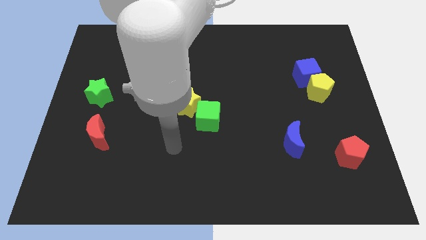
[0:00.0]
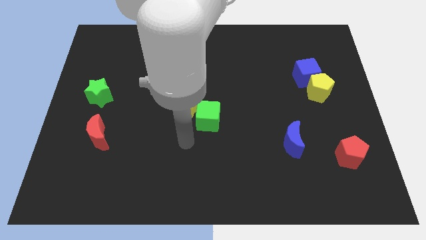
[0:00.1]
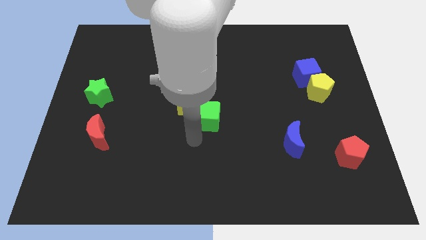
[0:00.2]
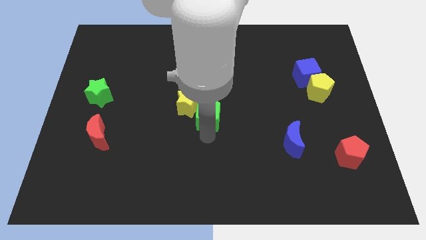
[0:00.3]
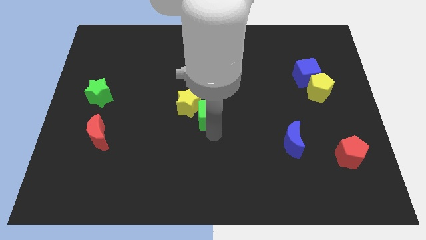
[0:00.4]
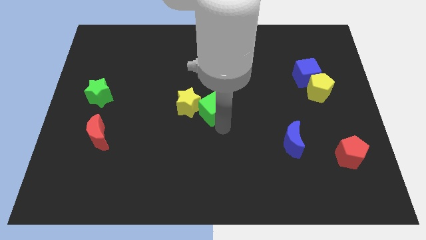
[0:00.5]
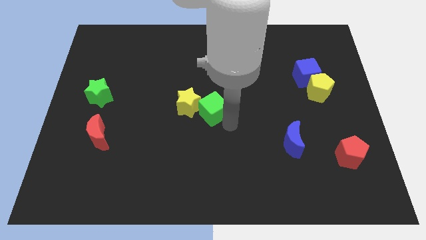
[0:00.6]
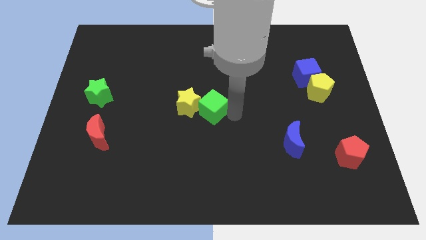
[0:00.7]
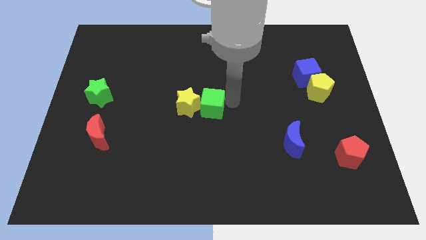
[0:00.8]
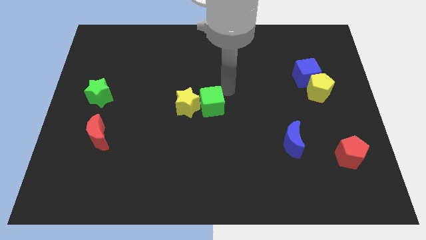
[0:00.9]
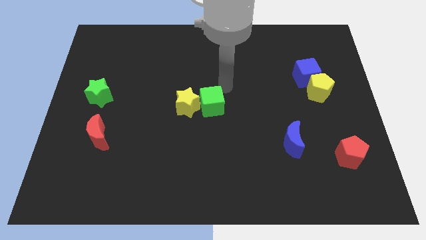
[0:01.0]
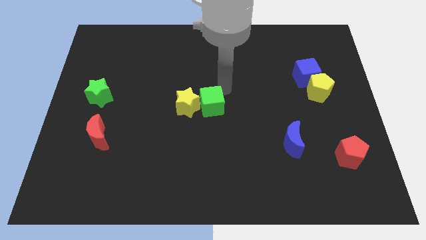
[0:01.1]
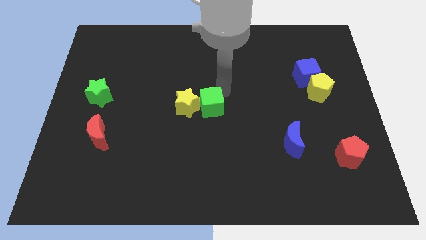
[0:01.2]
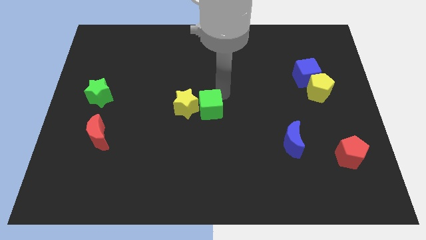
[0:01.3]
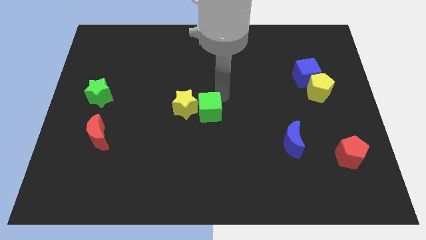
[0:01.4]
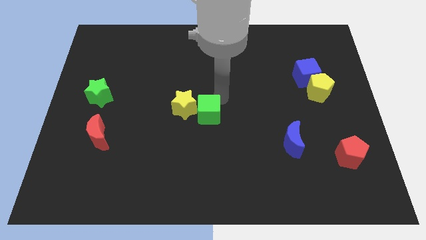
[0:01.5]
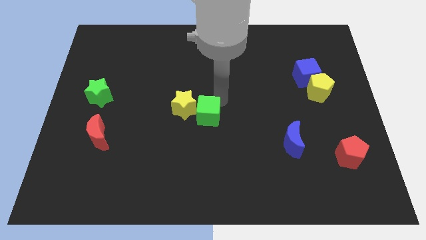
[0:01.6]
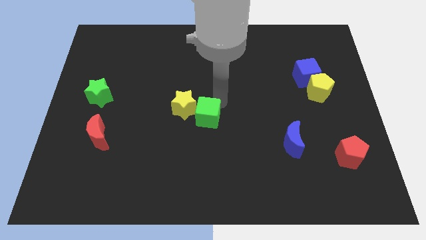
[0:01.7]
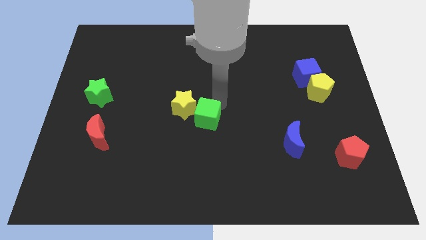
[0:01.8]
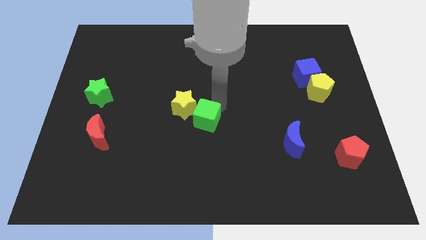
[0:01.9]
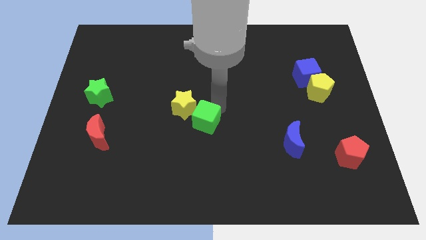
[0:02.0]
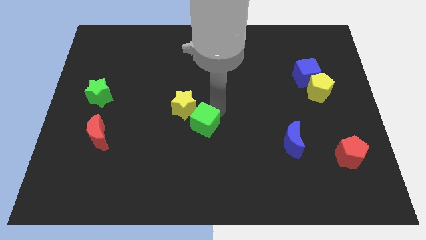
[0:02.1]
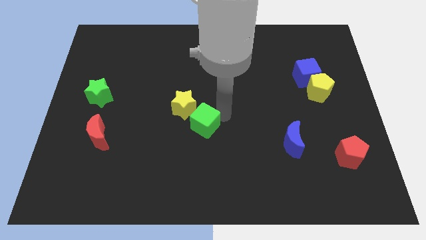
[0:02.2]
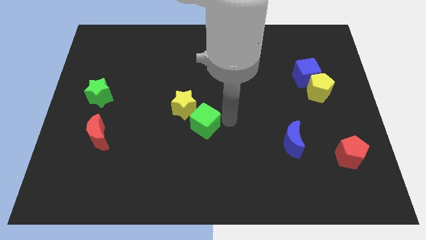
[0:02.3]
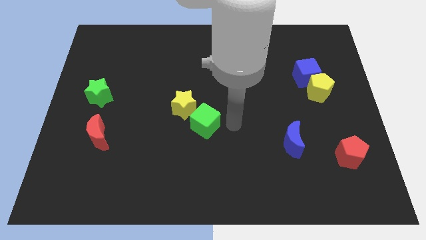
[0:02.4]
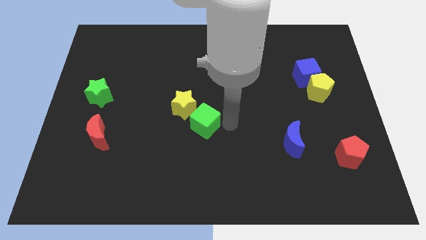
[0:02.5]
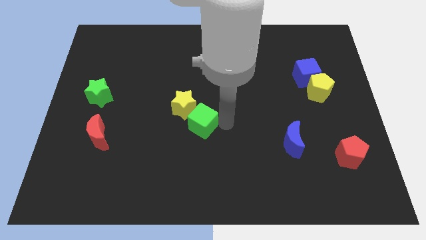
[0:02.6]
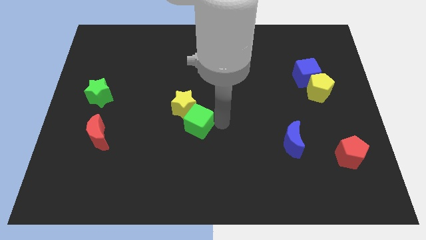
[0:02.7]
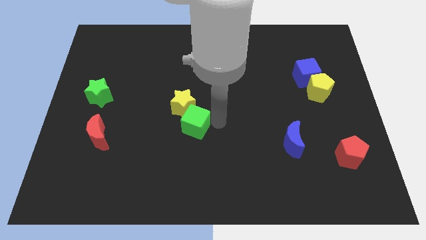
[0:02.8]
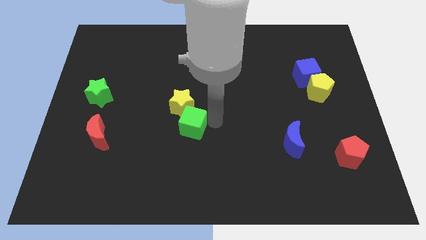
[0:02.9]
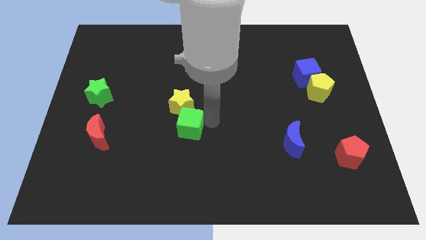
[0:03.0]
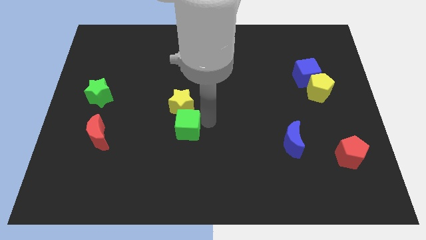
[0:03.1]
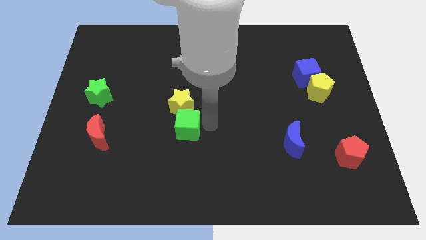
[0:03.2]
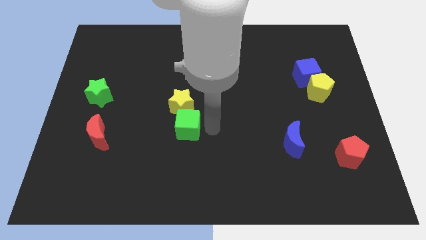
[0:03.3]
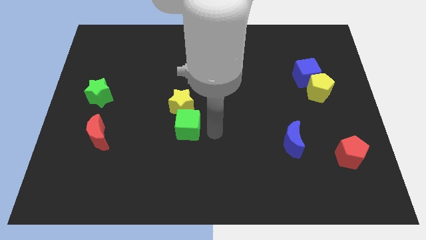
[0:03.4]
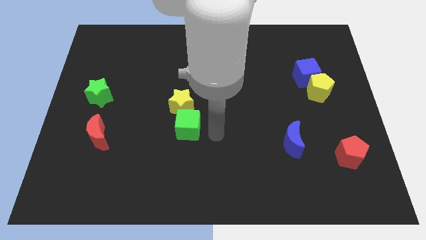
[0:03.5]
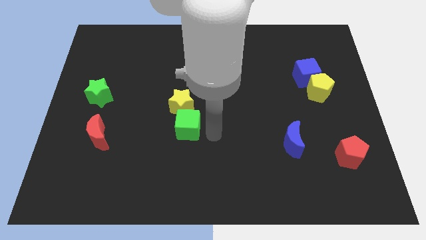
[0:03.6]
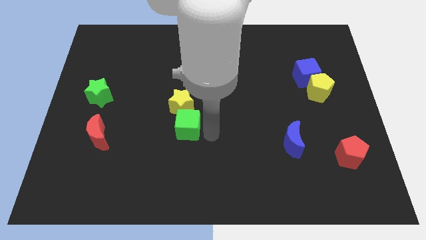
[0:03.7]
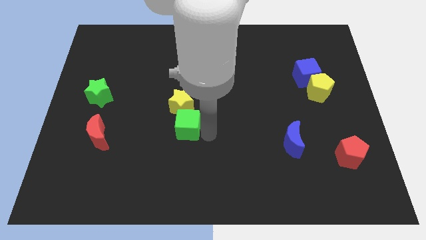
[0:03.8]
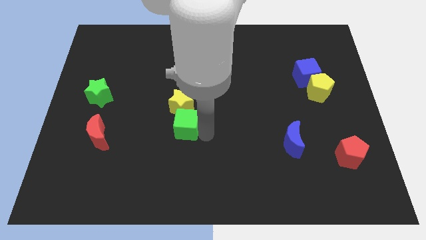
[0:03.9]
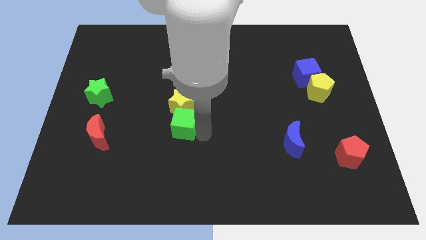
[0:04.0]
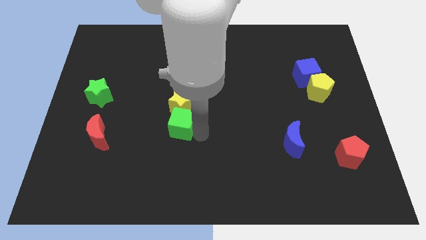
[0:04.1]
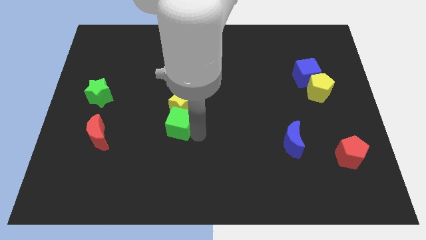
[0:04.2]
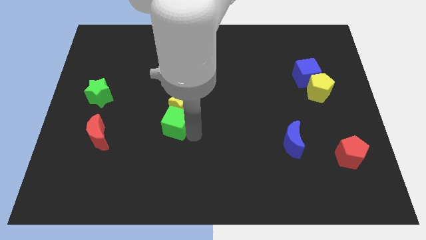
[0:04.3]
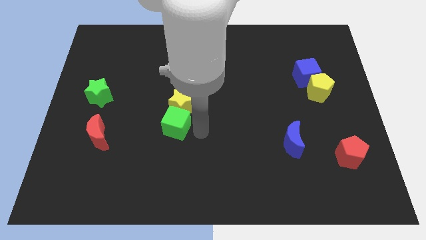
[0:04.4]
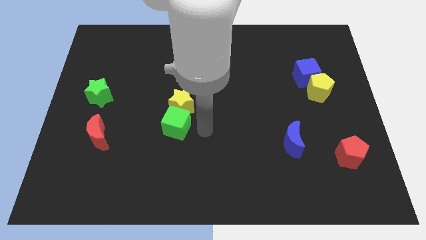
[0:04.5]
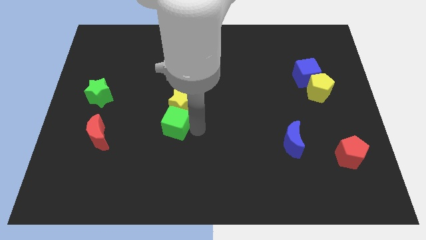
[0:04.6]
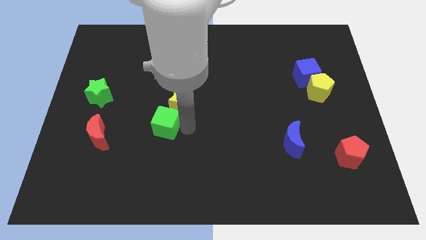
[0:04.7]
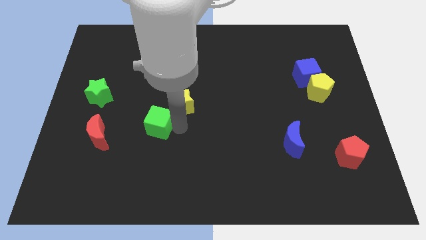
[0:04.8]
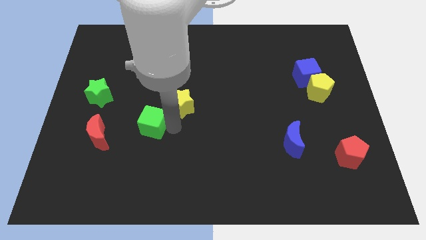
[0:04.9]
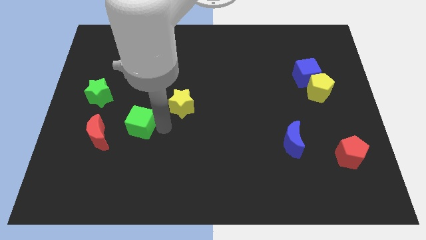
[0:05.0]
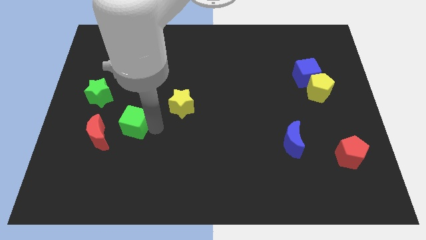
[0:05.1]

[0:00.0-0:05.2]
put the green cube to the bottom right side of the green star

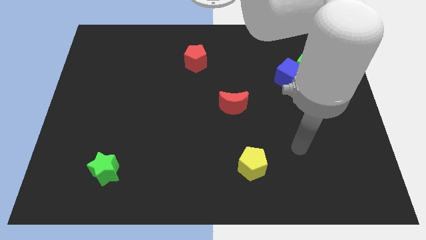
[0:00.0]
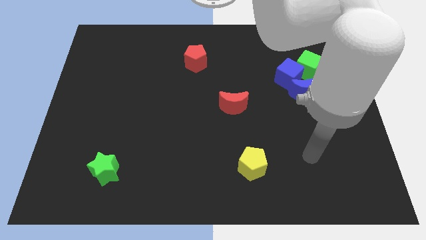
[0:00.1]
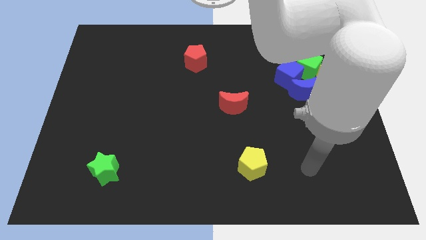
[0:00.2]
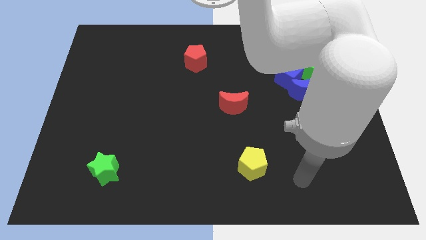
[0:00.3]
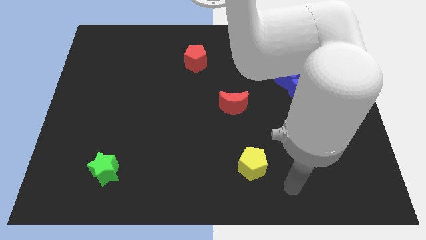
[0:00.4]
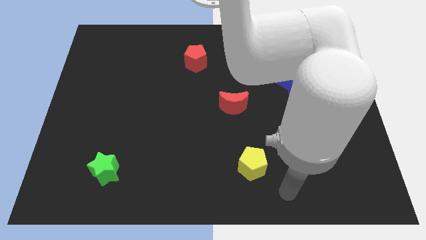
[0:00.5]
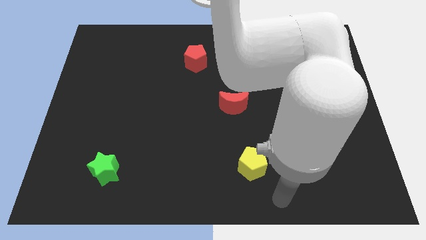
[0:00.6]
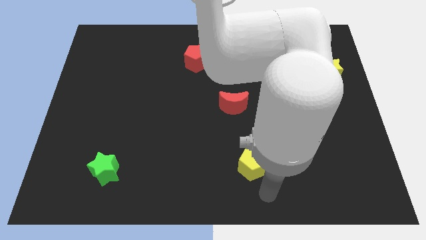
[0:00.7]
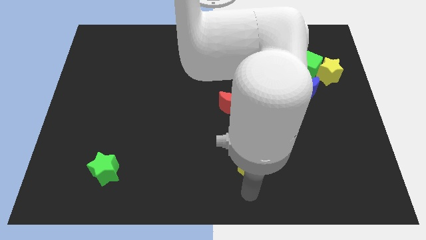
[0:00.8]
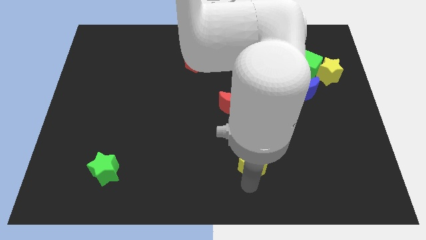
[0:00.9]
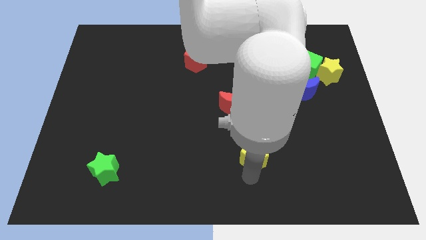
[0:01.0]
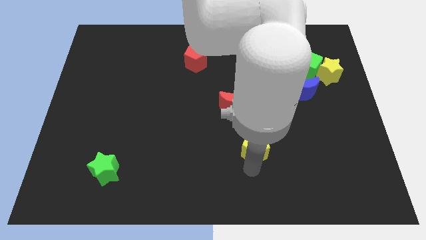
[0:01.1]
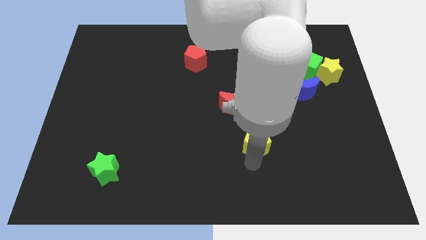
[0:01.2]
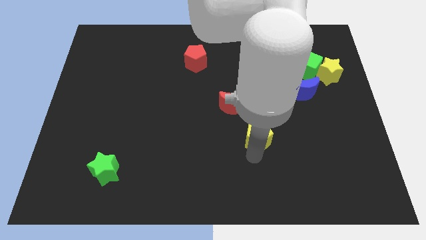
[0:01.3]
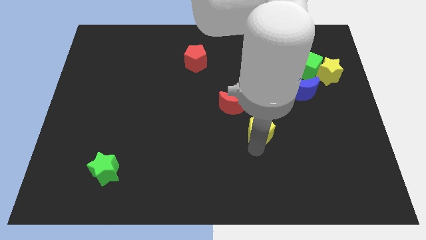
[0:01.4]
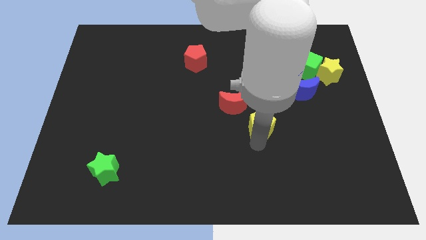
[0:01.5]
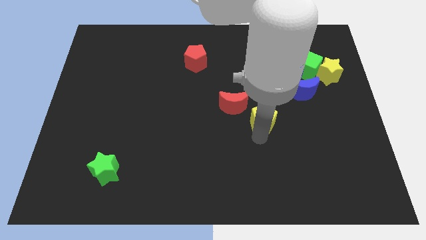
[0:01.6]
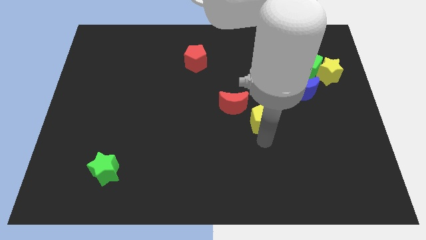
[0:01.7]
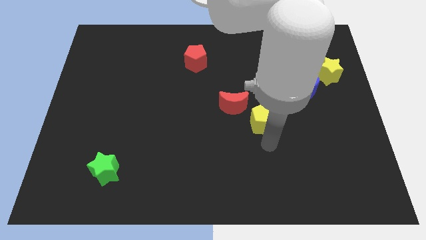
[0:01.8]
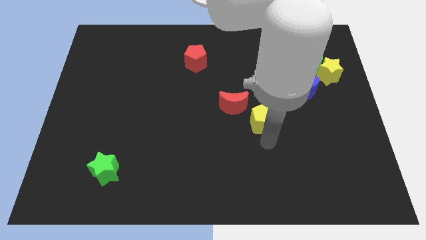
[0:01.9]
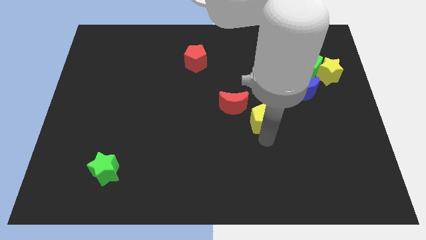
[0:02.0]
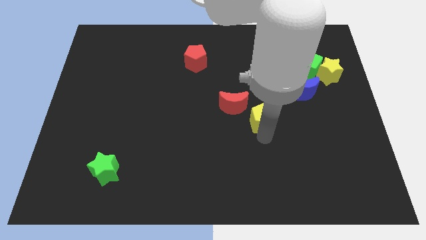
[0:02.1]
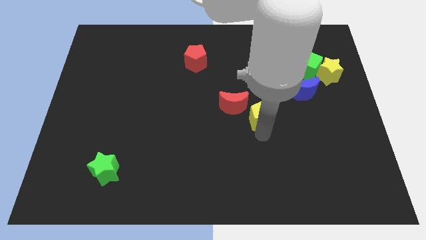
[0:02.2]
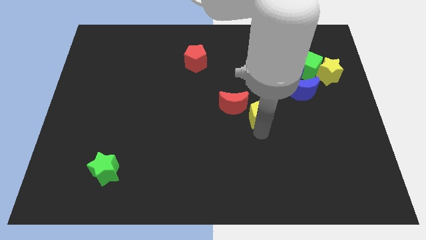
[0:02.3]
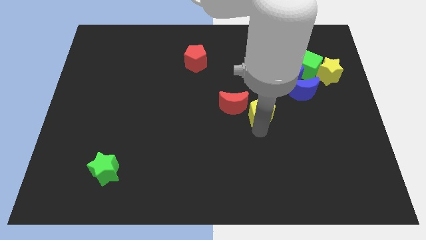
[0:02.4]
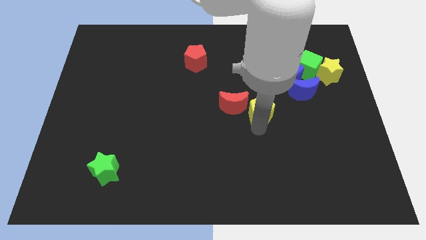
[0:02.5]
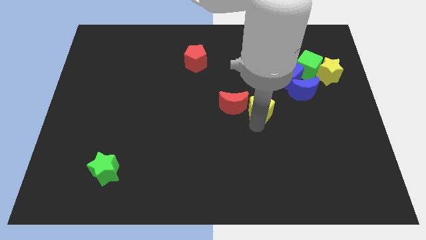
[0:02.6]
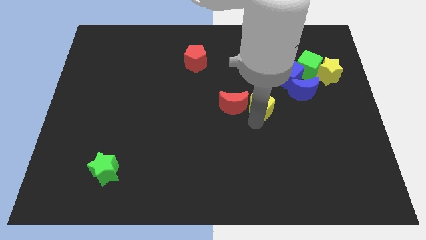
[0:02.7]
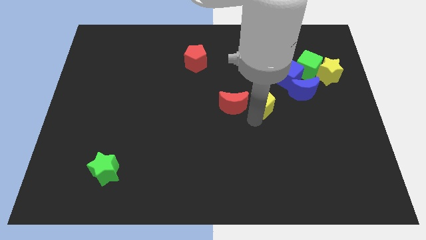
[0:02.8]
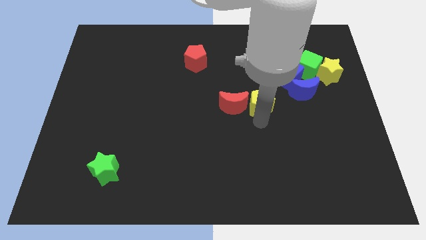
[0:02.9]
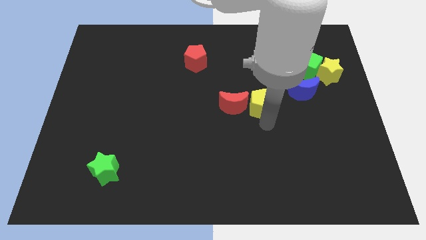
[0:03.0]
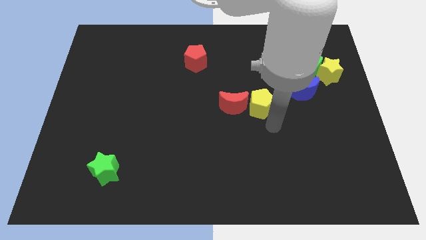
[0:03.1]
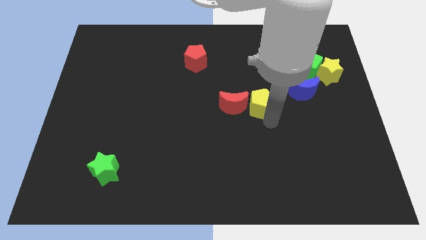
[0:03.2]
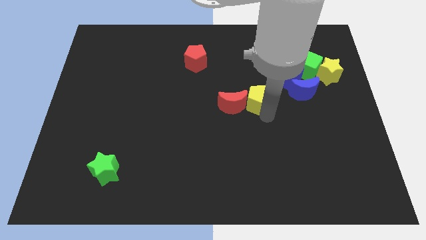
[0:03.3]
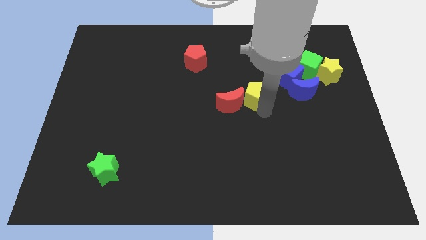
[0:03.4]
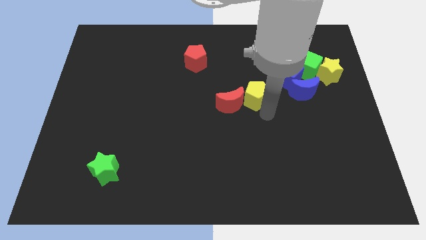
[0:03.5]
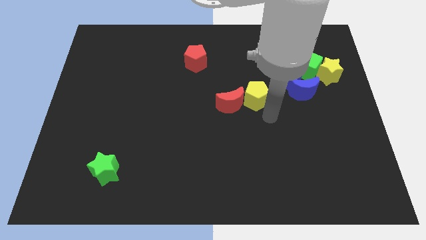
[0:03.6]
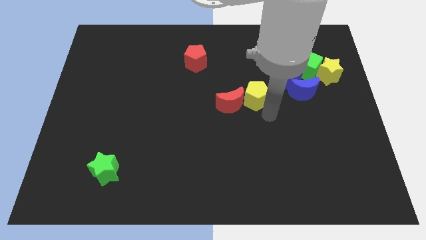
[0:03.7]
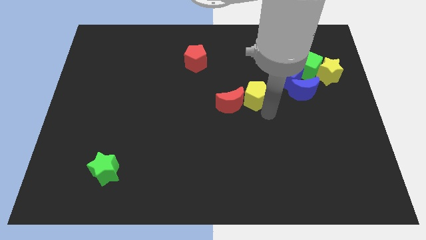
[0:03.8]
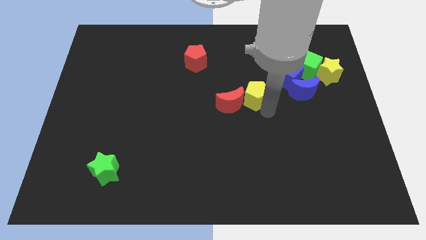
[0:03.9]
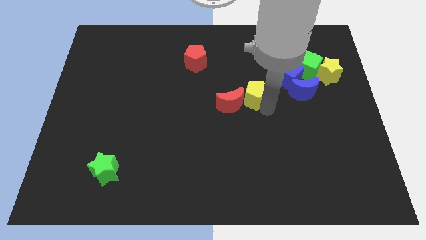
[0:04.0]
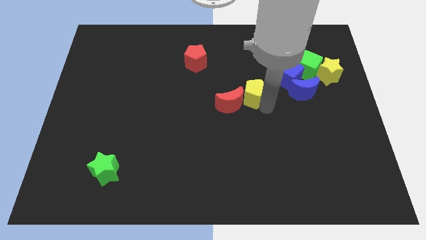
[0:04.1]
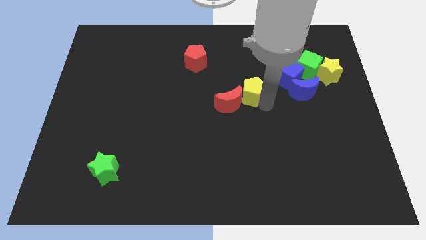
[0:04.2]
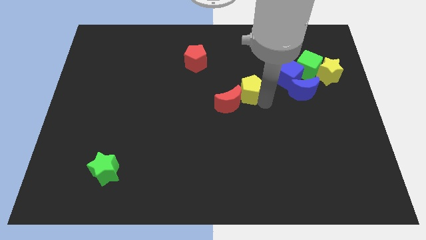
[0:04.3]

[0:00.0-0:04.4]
put the yellow pentagon just left of the blue cube
